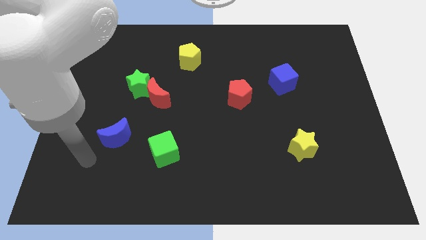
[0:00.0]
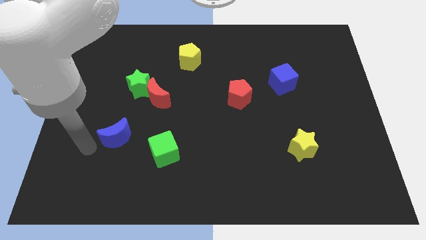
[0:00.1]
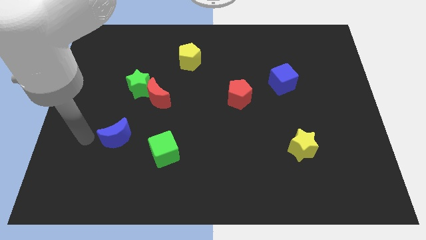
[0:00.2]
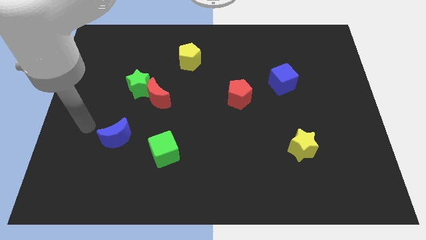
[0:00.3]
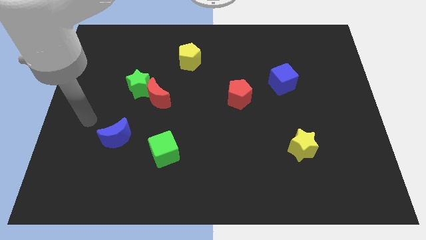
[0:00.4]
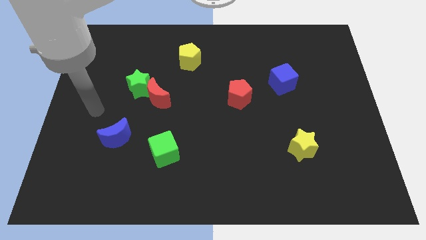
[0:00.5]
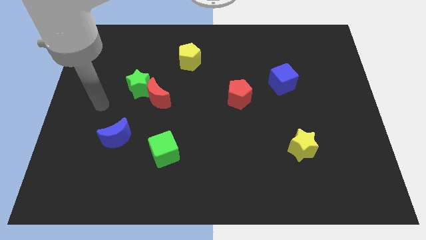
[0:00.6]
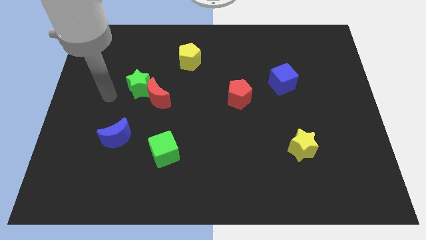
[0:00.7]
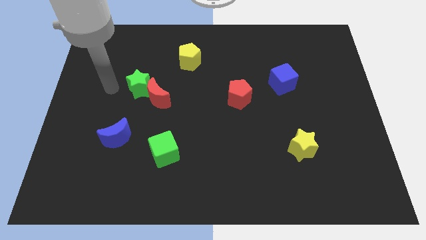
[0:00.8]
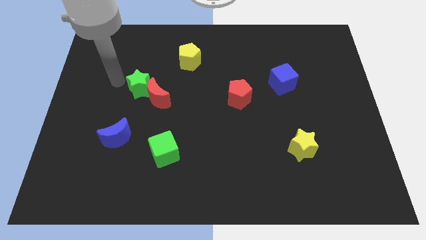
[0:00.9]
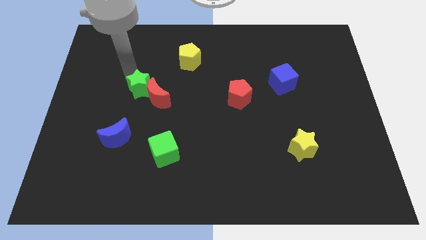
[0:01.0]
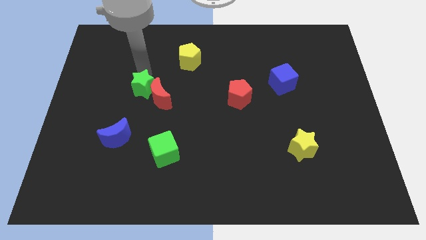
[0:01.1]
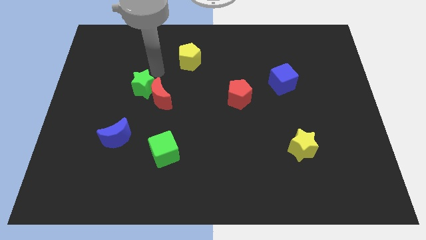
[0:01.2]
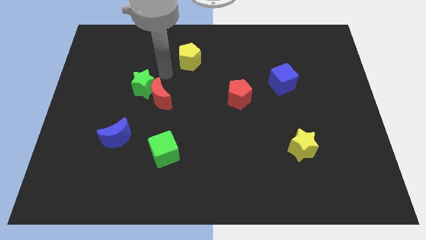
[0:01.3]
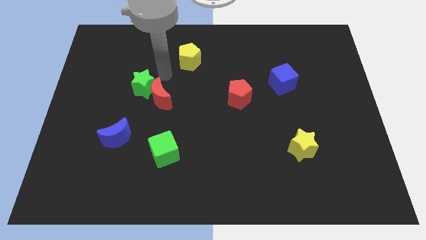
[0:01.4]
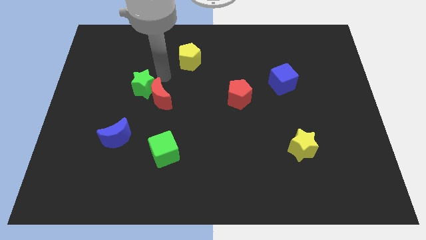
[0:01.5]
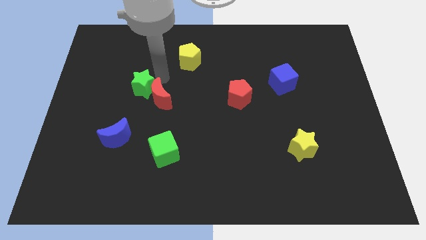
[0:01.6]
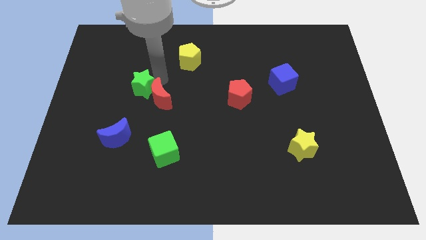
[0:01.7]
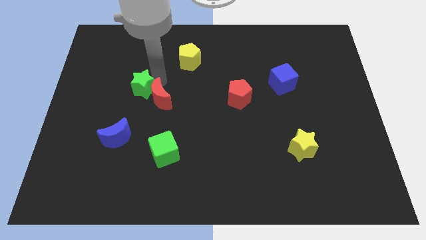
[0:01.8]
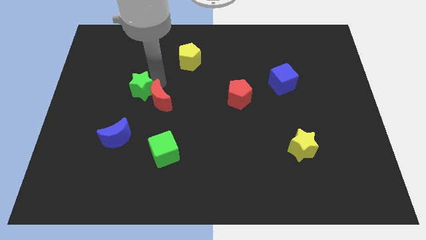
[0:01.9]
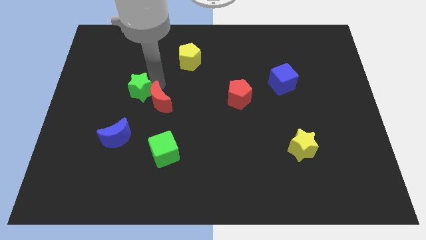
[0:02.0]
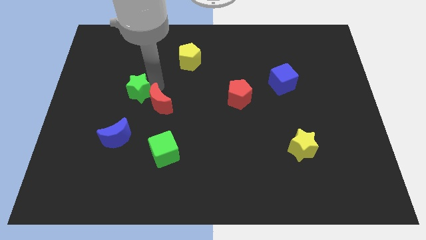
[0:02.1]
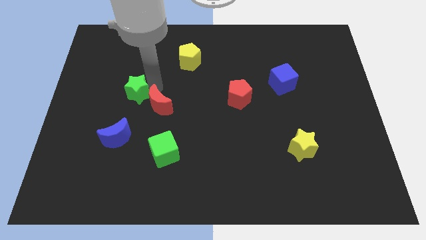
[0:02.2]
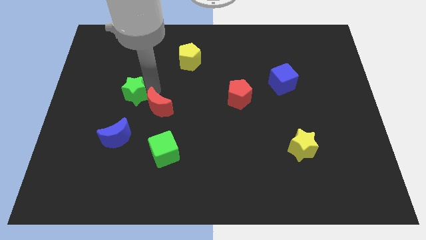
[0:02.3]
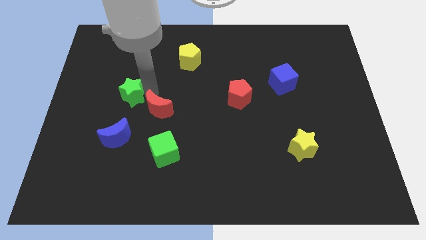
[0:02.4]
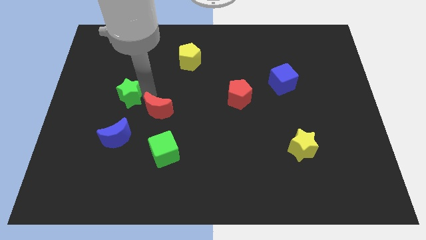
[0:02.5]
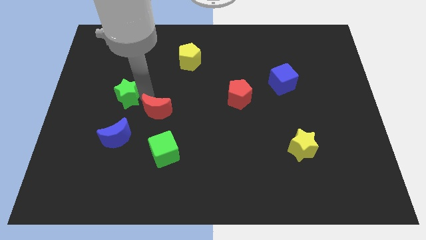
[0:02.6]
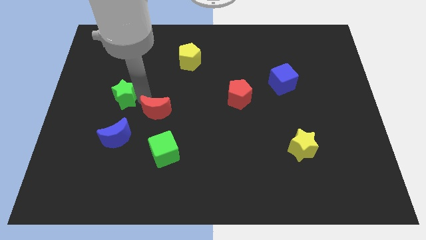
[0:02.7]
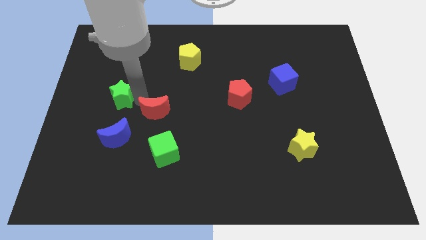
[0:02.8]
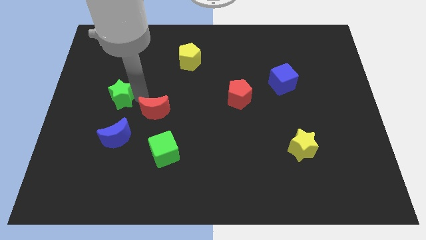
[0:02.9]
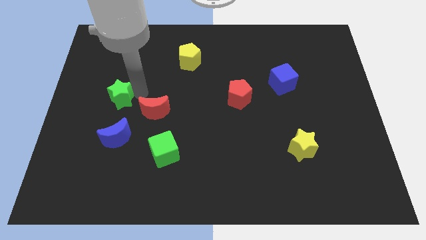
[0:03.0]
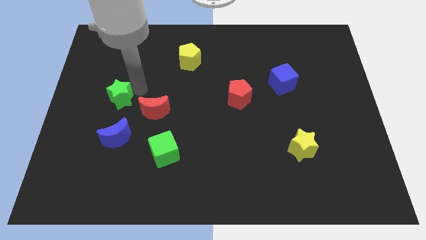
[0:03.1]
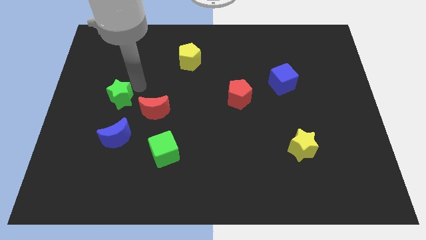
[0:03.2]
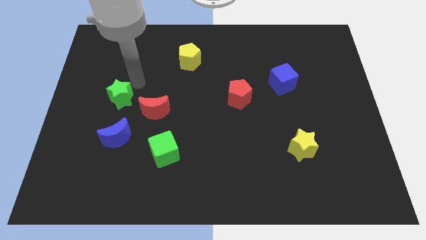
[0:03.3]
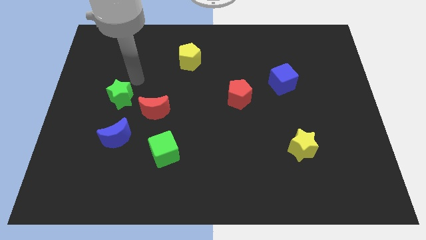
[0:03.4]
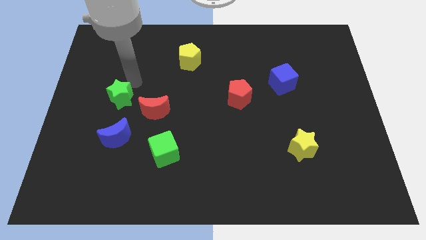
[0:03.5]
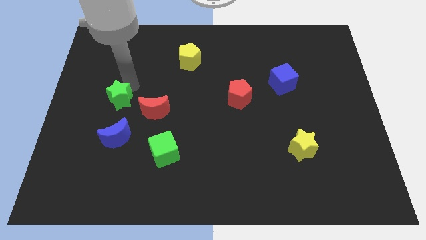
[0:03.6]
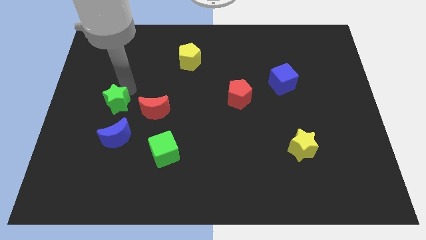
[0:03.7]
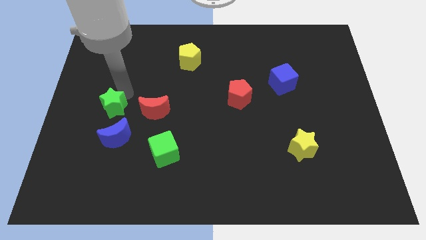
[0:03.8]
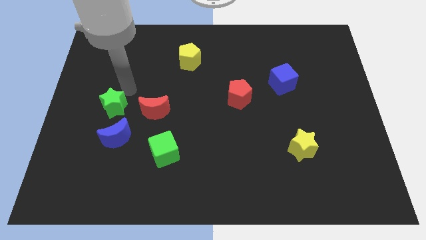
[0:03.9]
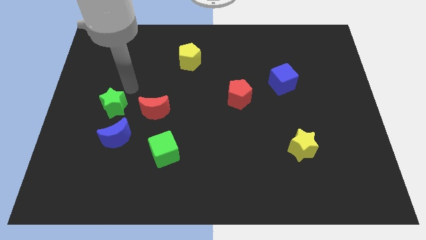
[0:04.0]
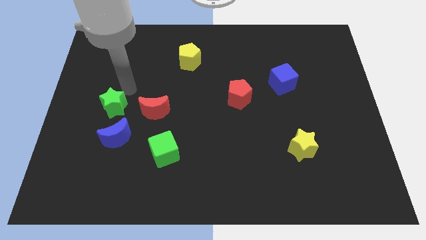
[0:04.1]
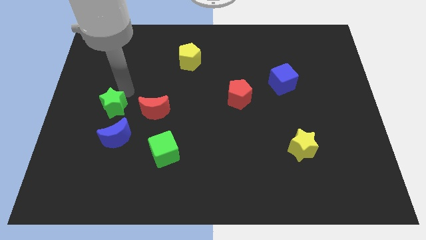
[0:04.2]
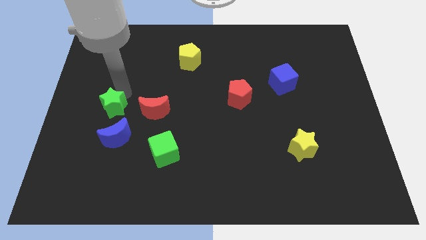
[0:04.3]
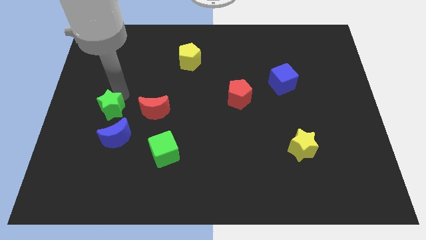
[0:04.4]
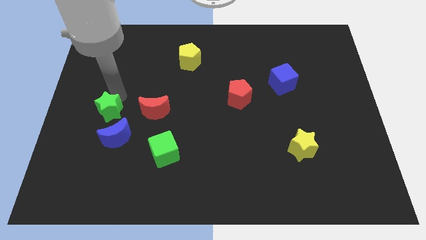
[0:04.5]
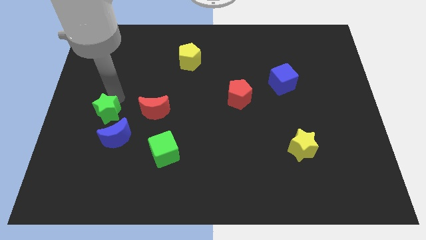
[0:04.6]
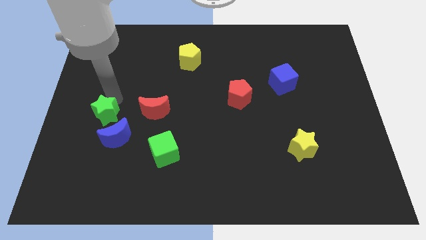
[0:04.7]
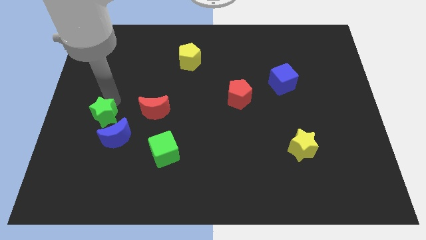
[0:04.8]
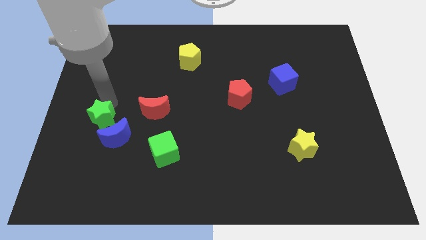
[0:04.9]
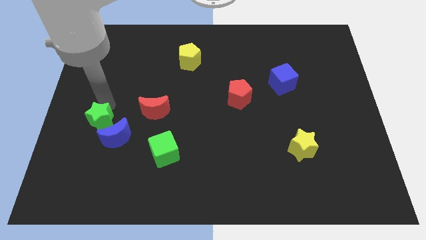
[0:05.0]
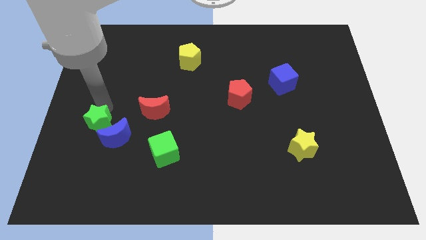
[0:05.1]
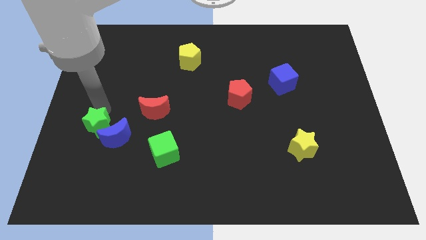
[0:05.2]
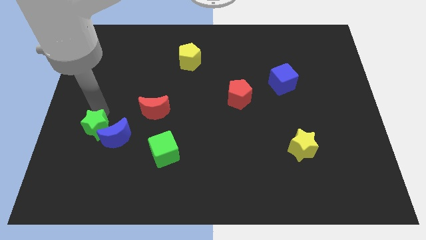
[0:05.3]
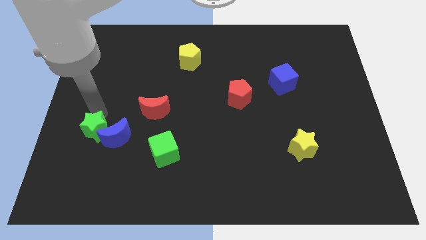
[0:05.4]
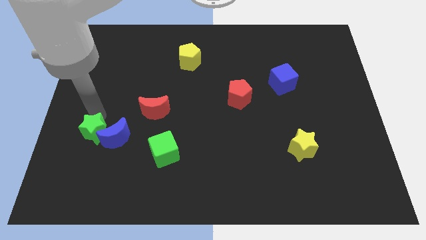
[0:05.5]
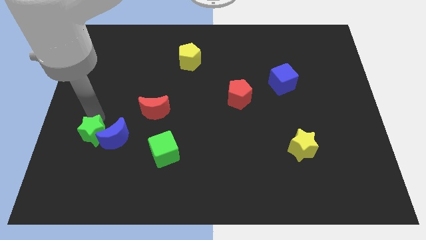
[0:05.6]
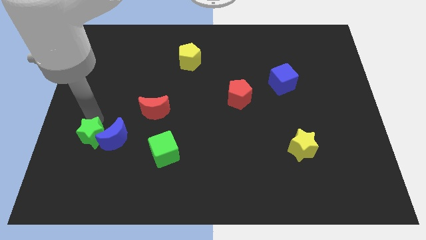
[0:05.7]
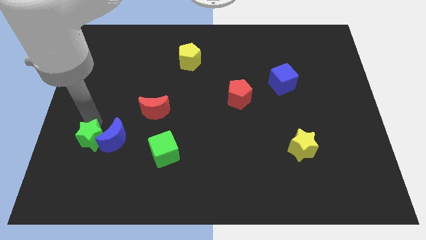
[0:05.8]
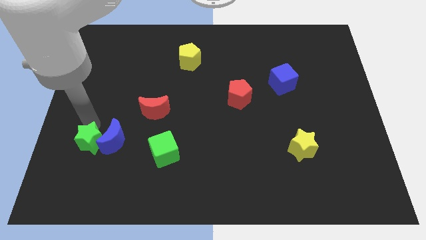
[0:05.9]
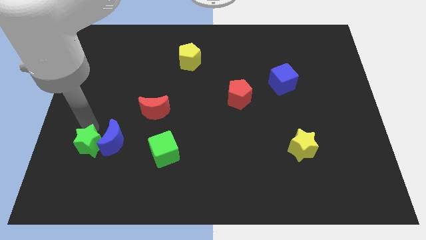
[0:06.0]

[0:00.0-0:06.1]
slide the green star just left of the green cube
